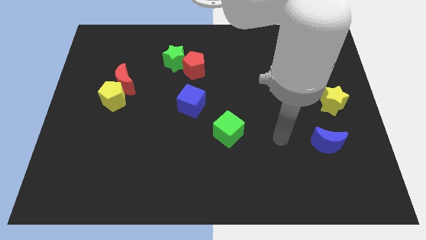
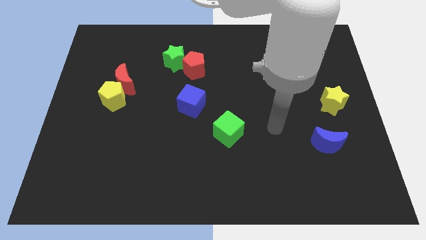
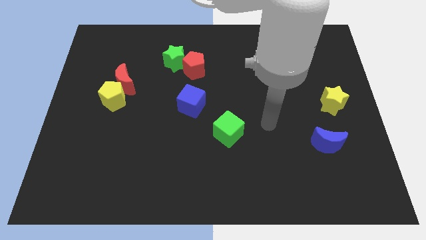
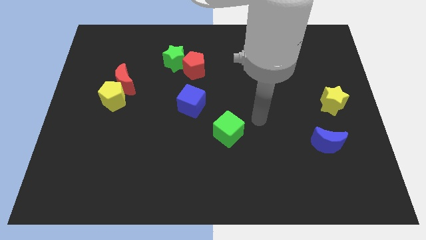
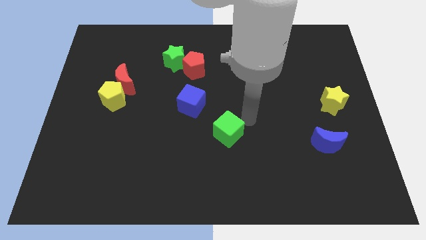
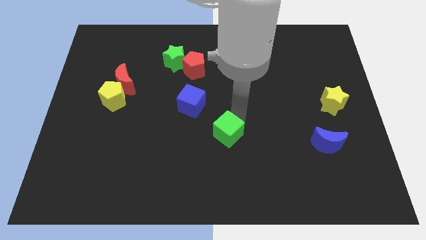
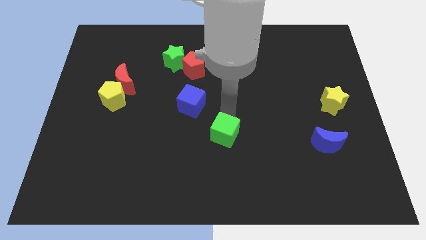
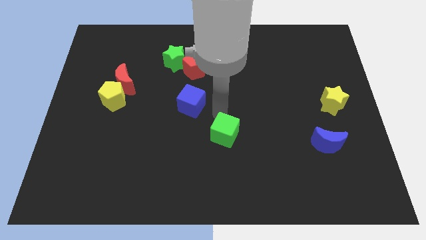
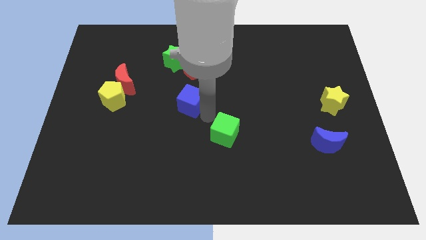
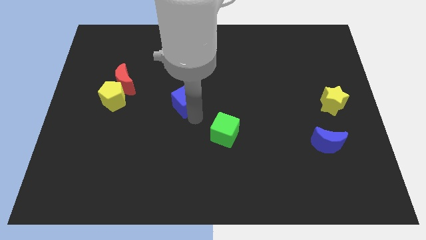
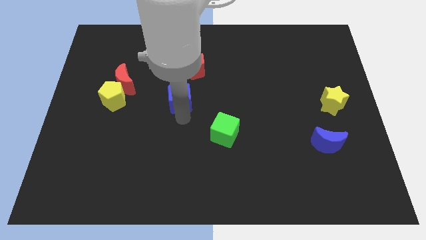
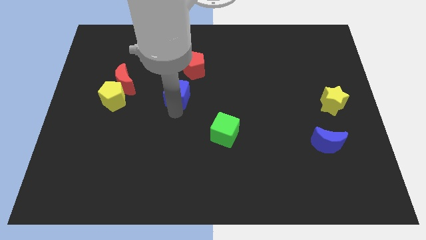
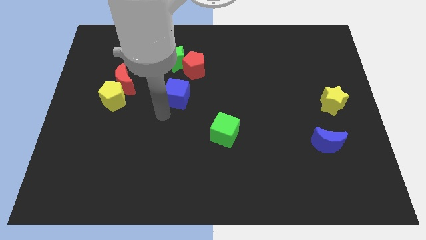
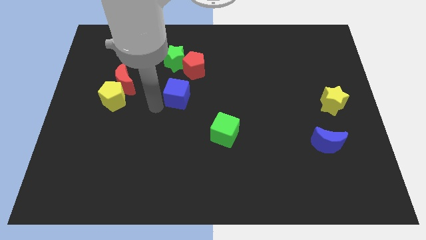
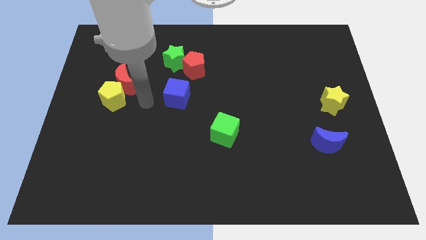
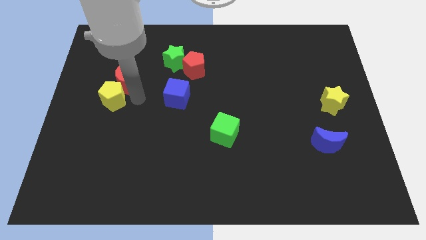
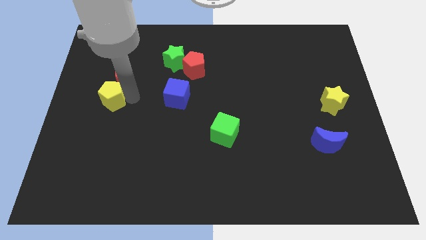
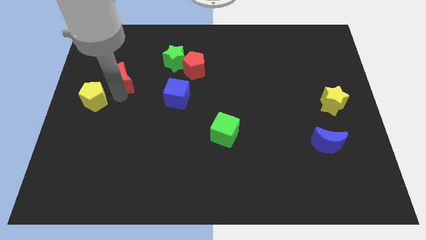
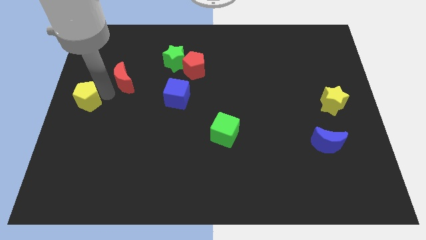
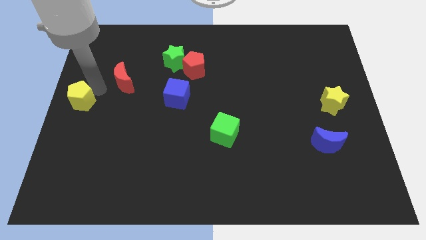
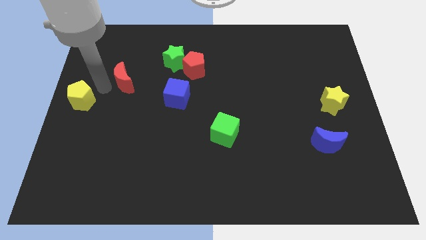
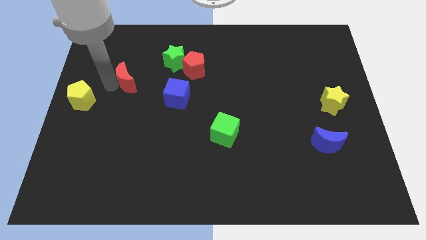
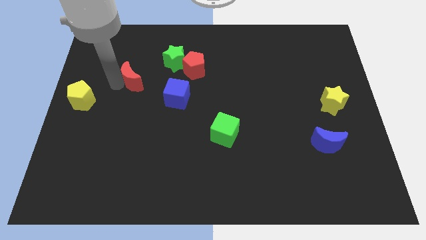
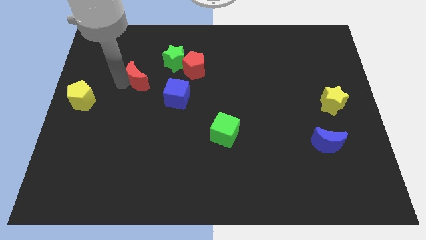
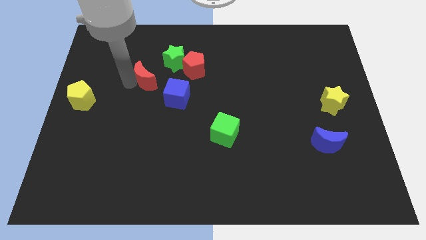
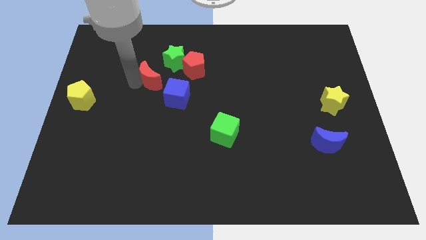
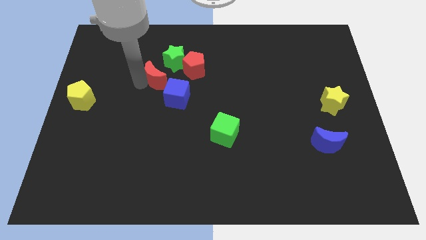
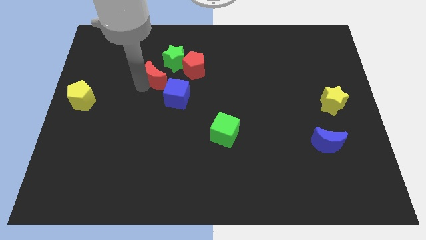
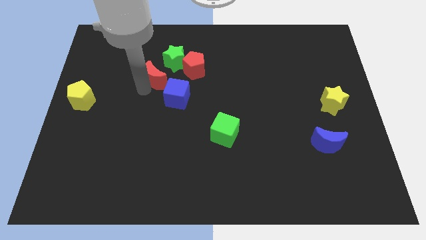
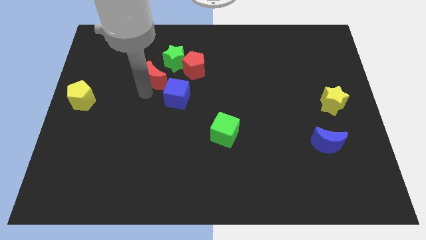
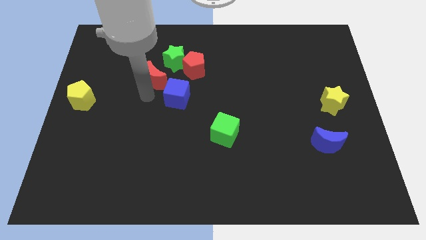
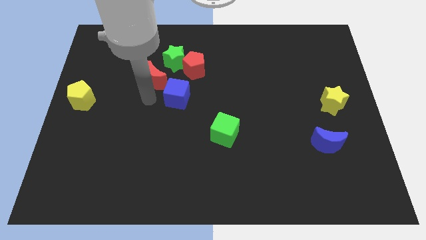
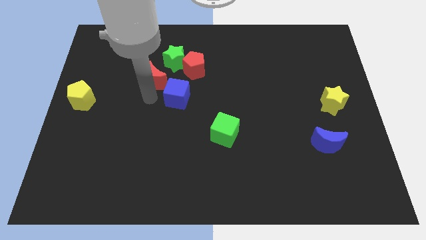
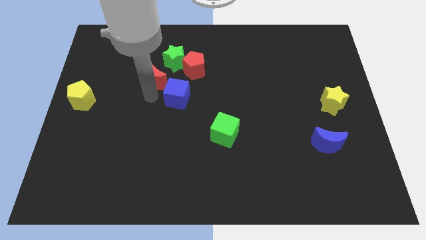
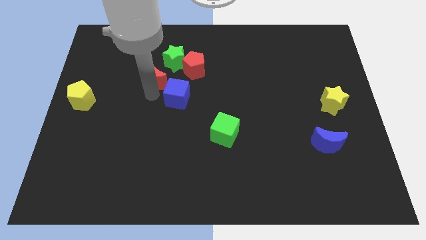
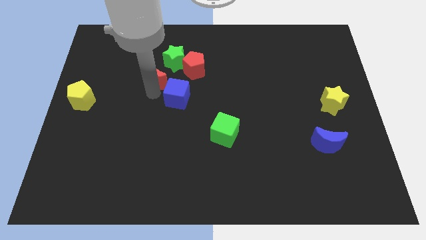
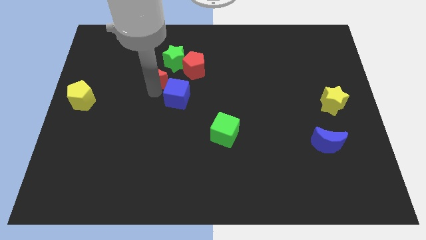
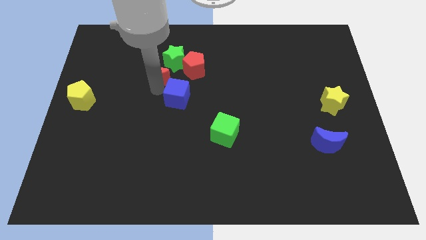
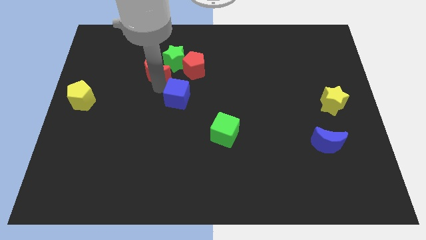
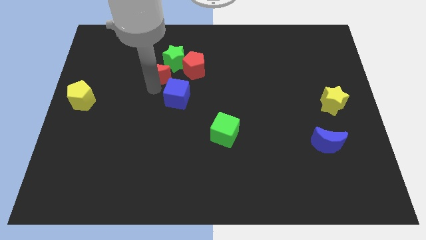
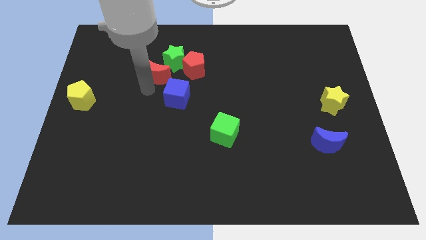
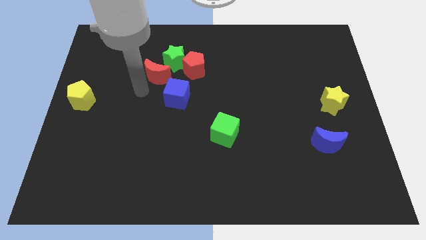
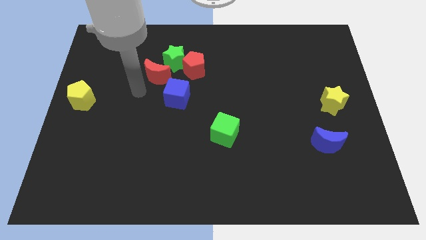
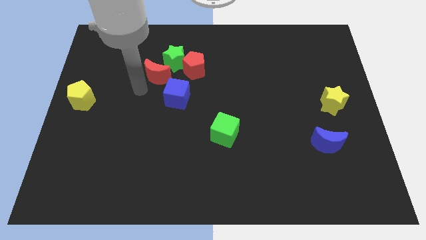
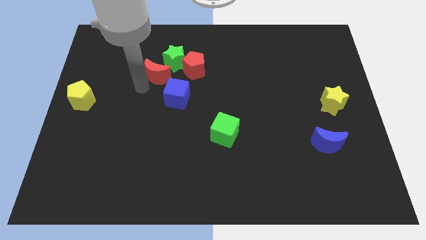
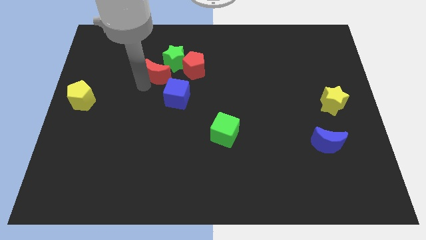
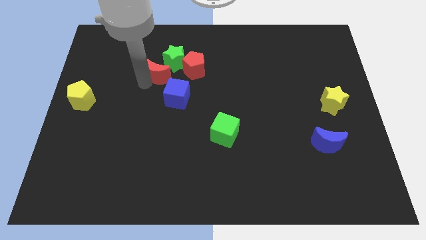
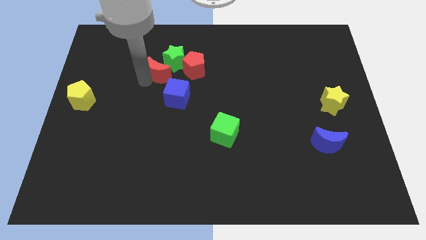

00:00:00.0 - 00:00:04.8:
move the red moon towards the green star

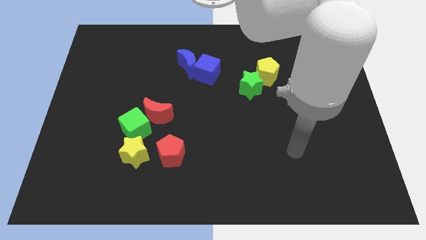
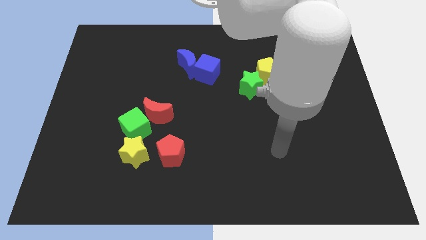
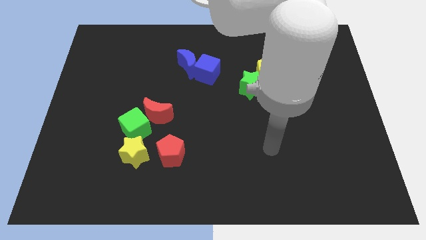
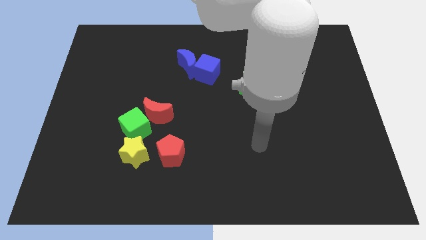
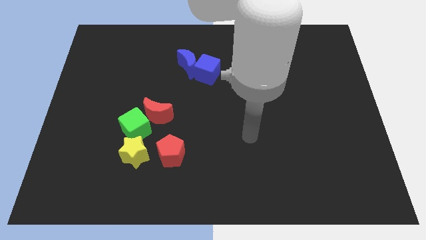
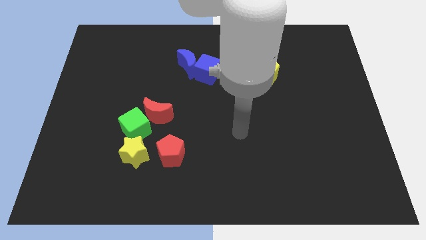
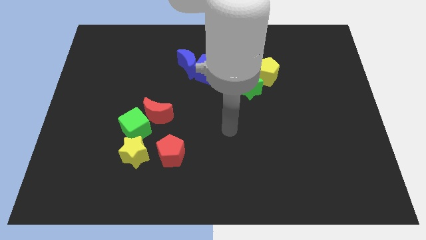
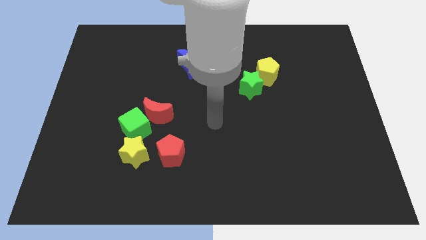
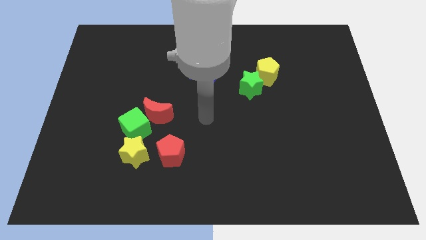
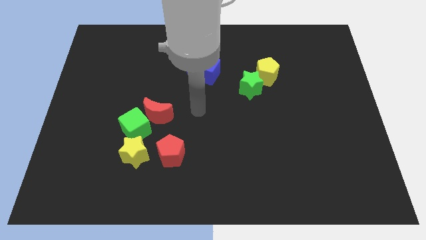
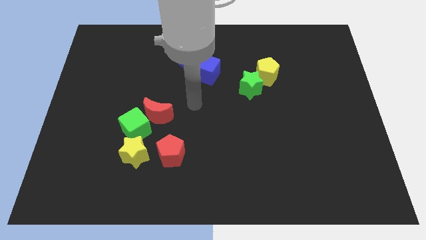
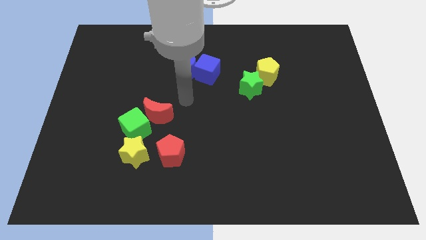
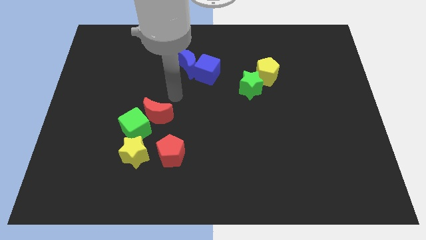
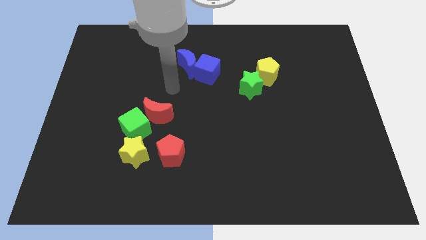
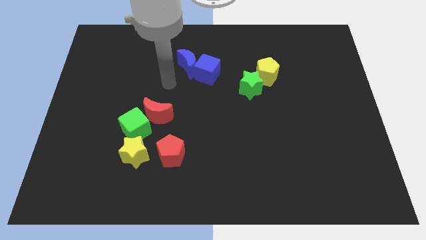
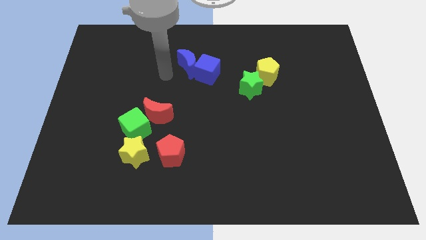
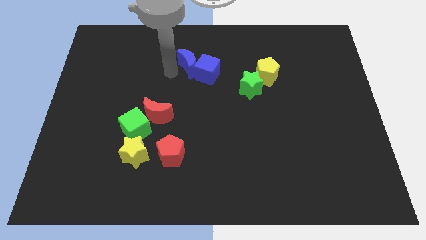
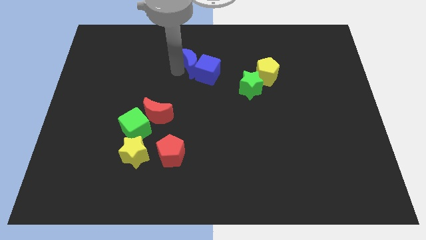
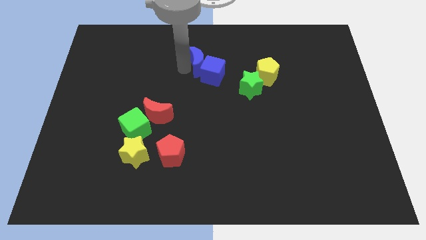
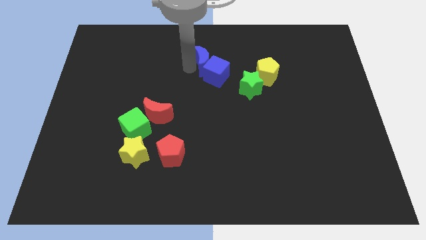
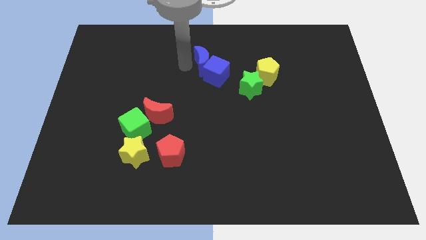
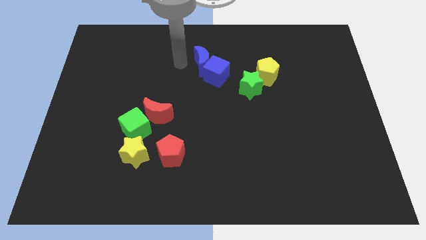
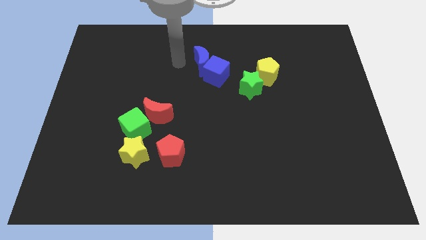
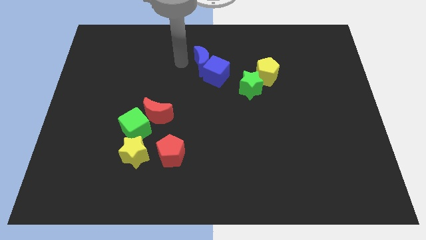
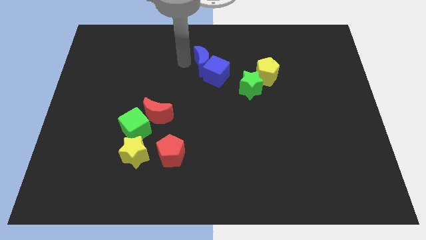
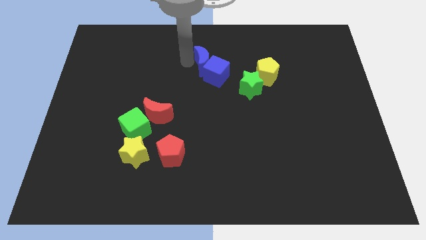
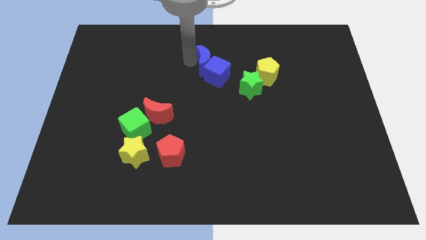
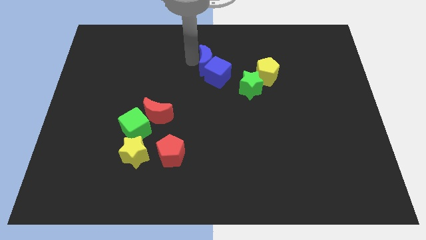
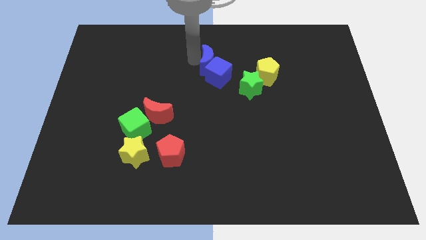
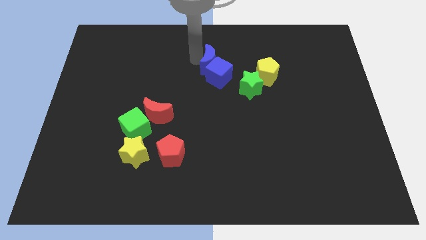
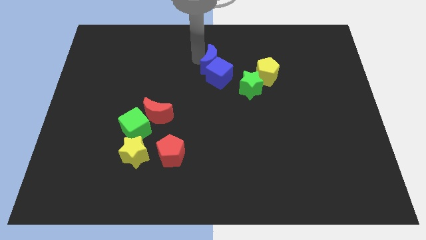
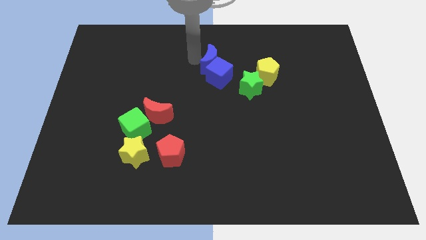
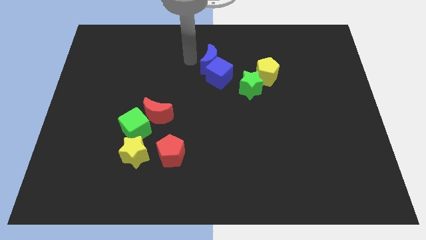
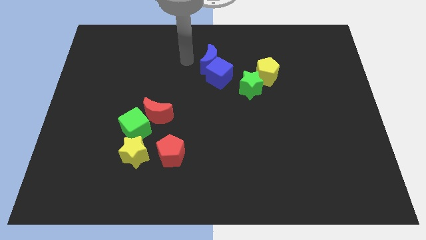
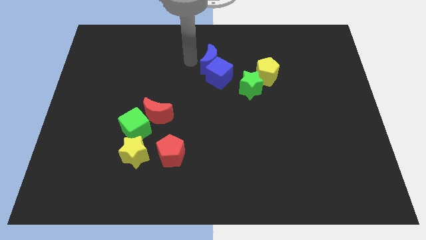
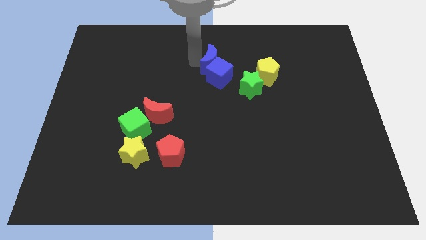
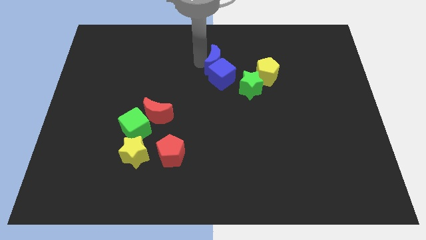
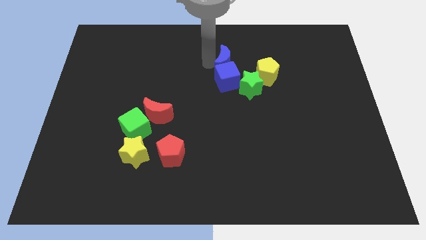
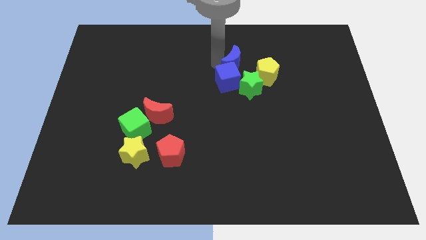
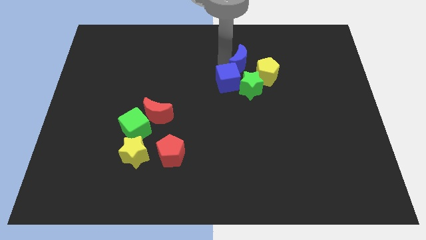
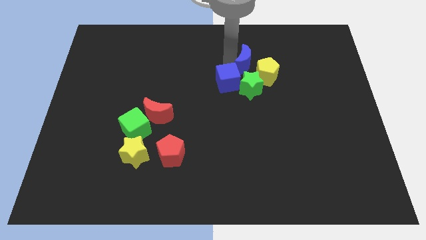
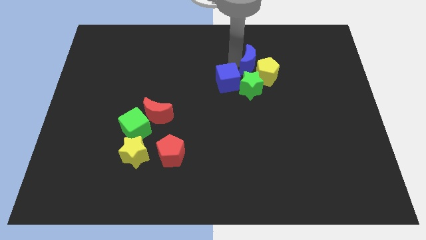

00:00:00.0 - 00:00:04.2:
put the blue moon next to the yellow pentagon
